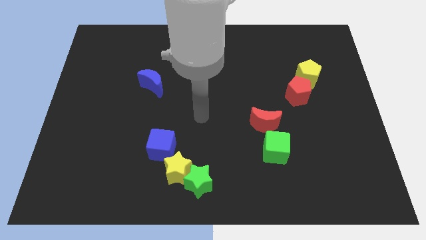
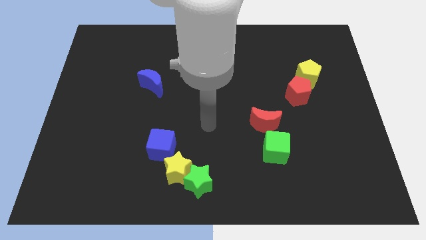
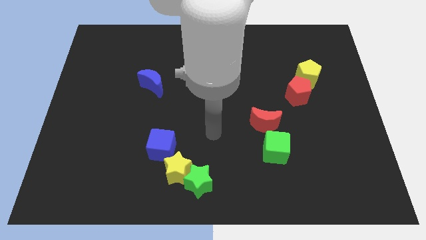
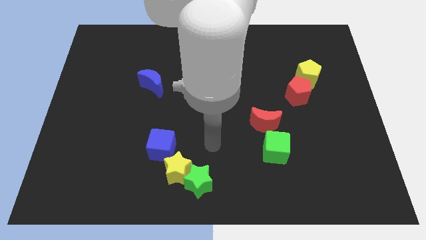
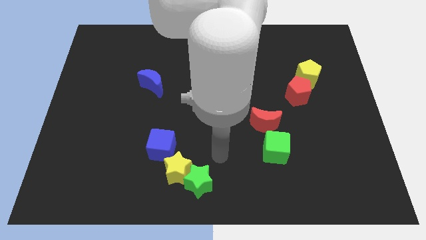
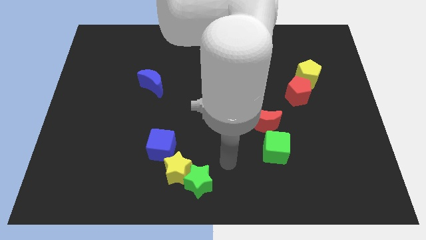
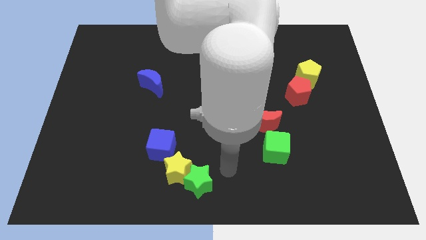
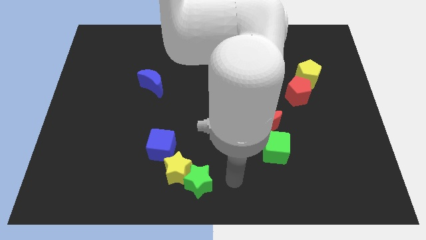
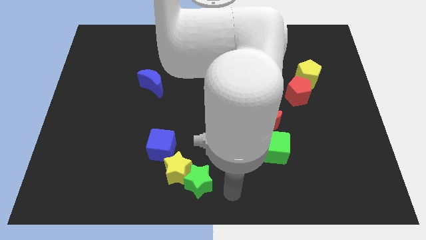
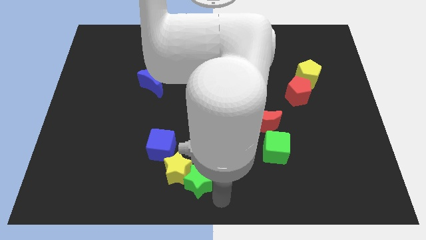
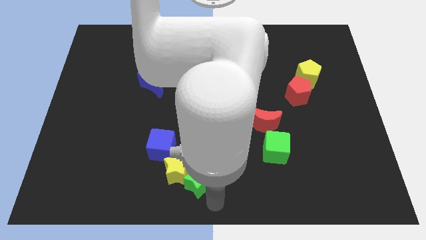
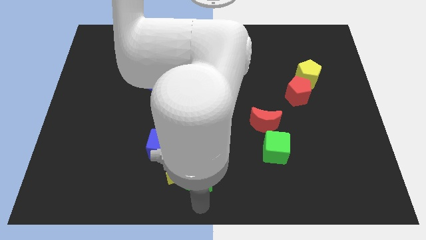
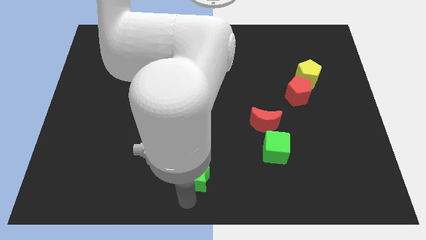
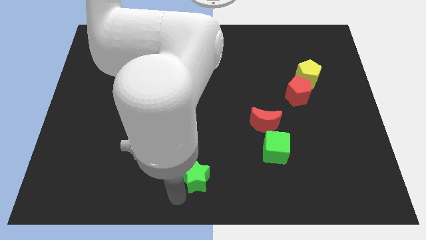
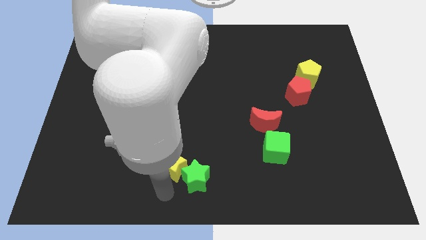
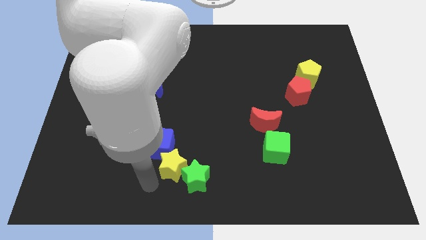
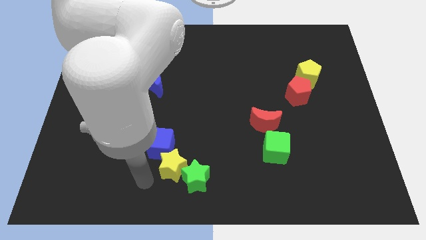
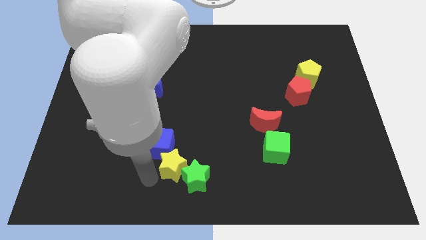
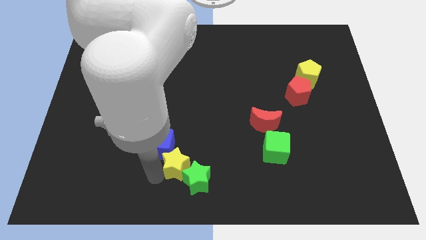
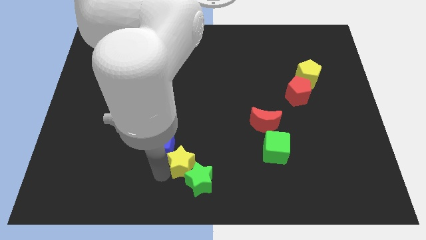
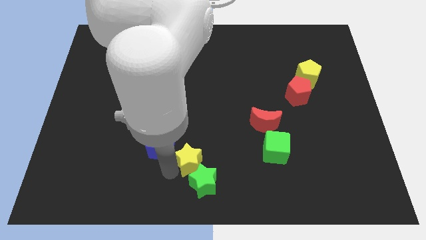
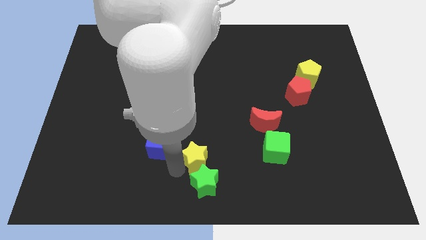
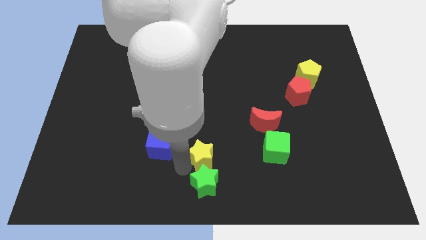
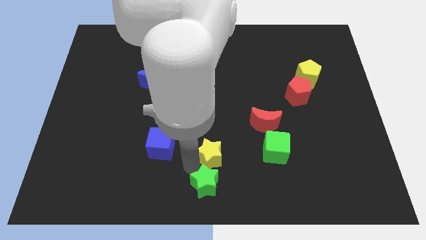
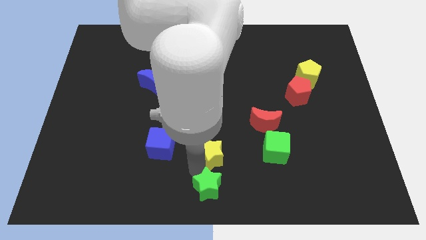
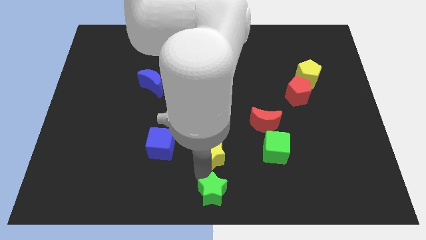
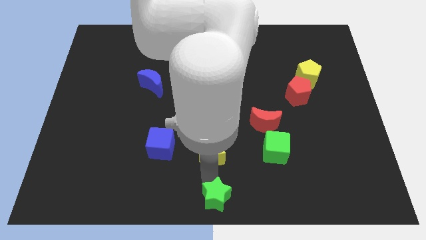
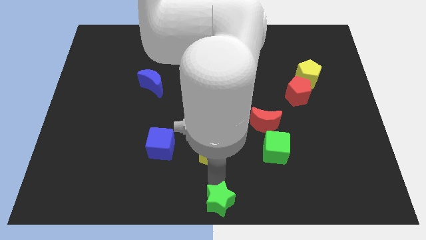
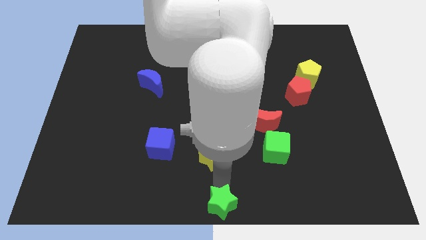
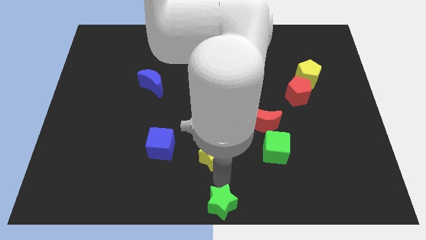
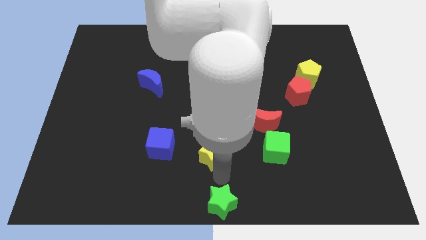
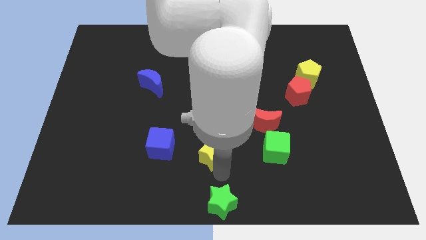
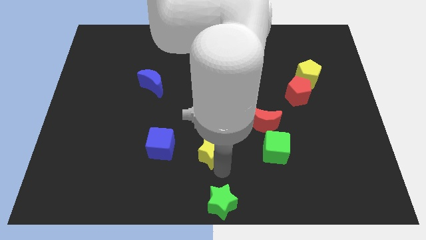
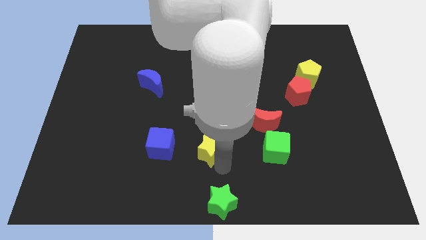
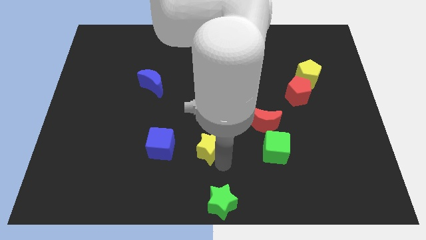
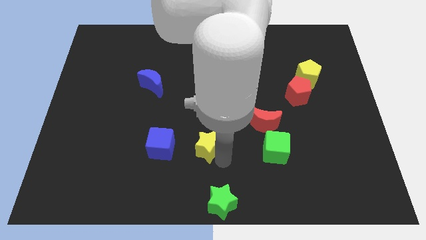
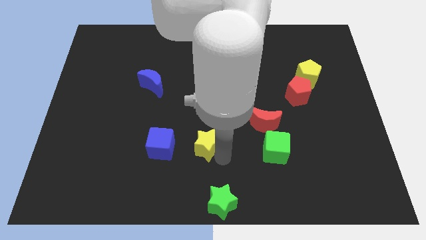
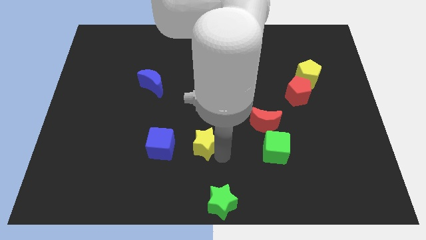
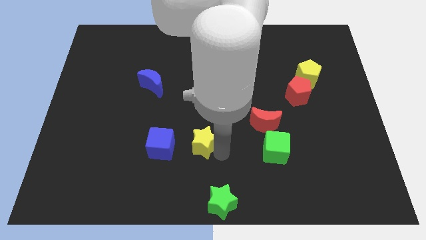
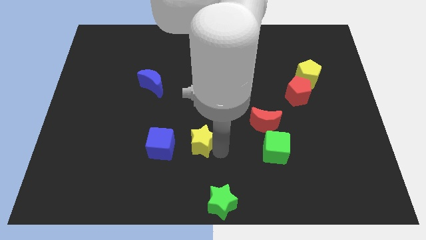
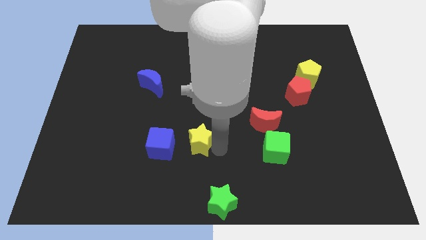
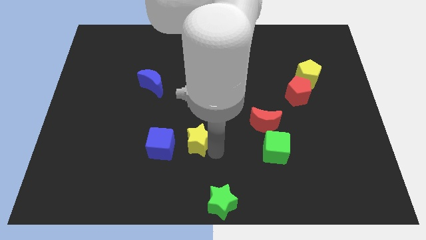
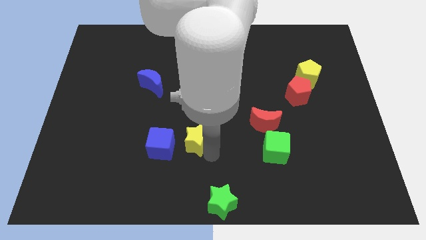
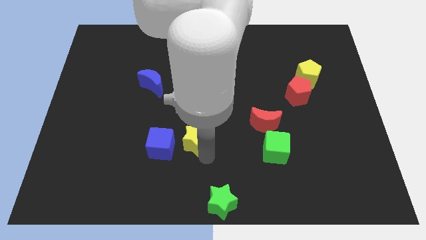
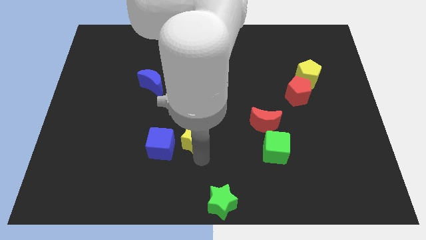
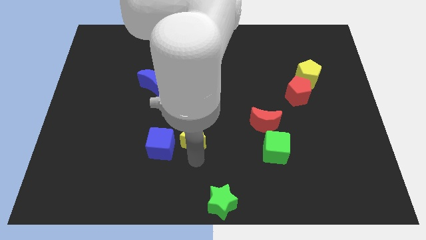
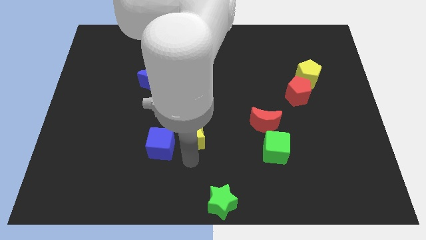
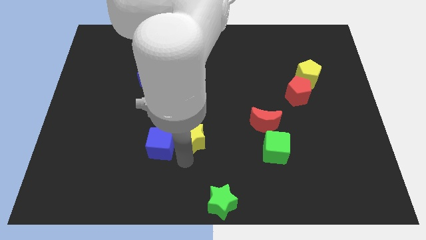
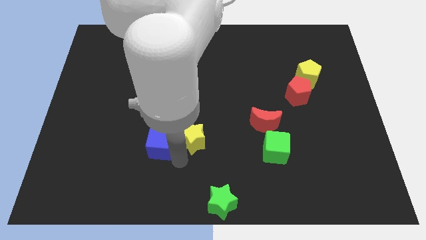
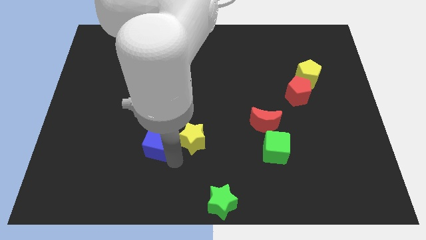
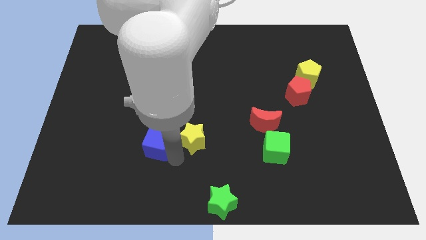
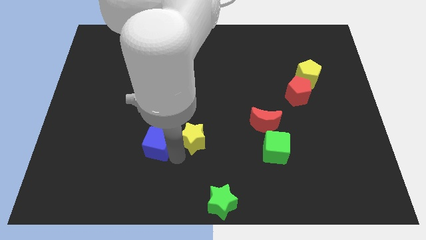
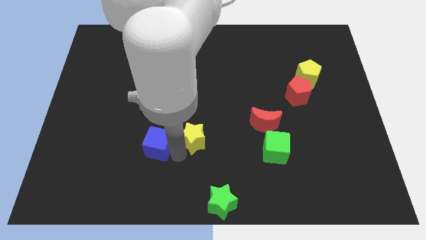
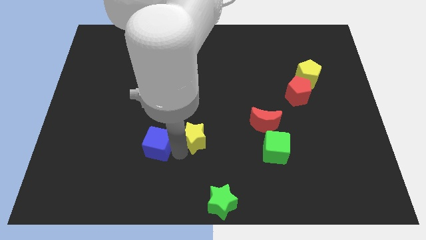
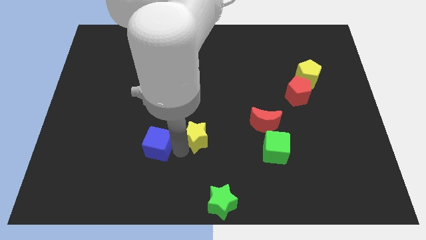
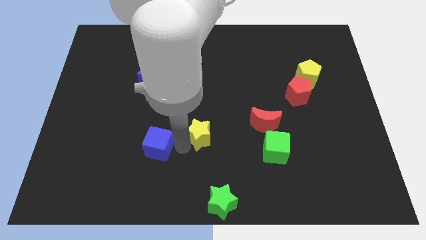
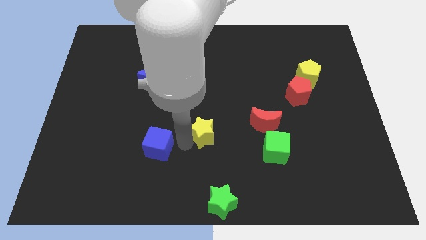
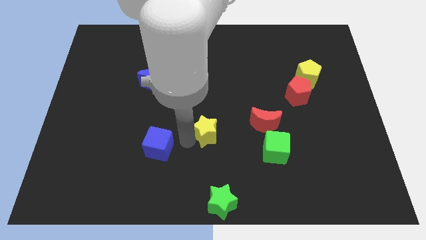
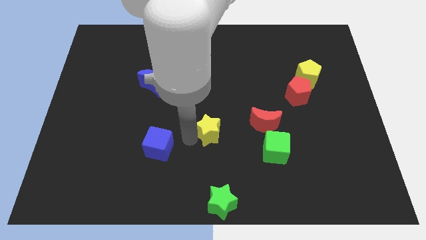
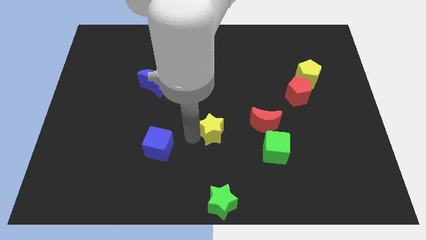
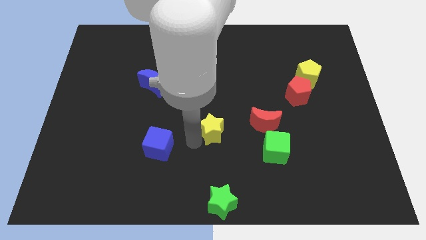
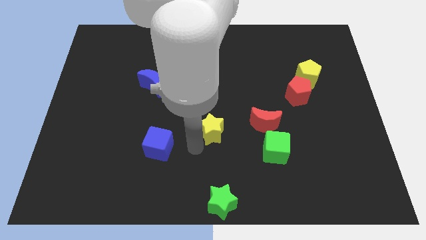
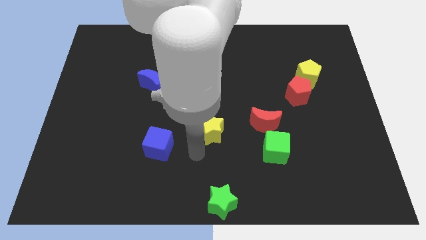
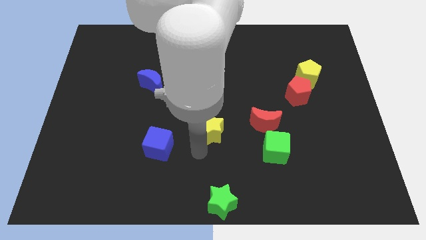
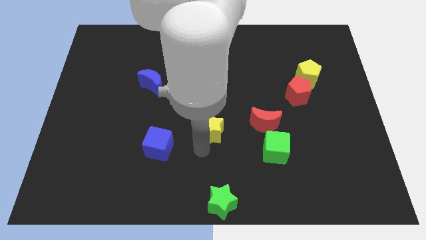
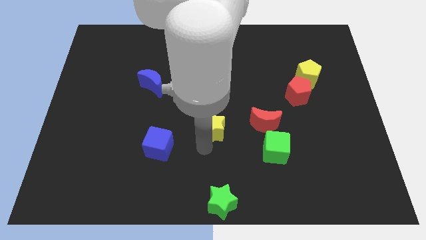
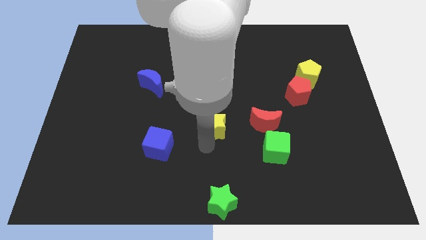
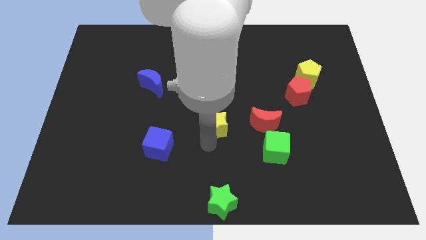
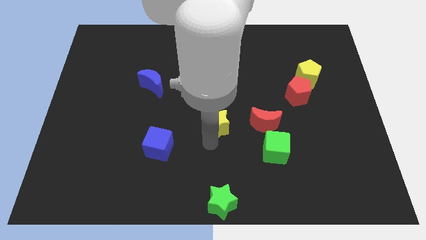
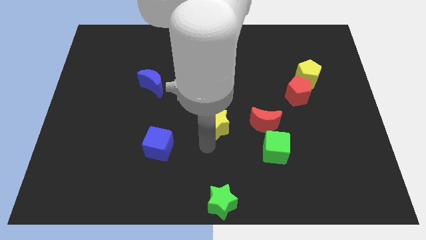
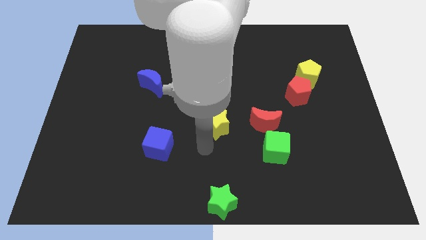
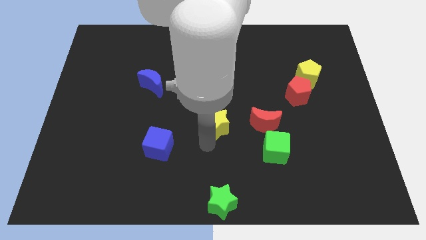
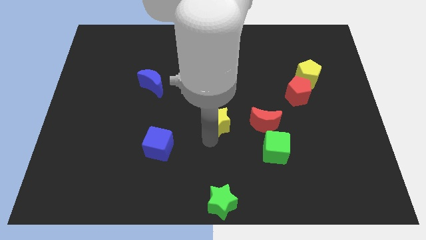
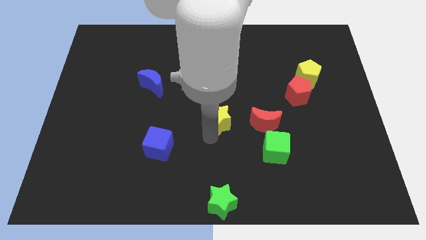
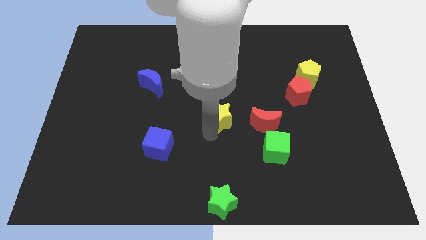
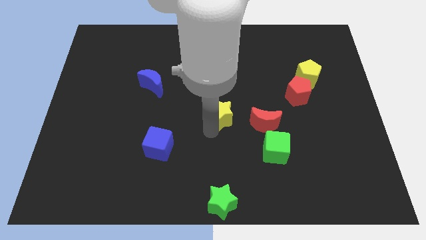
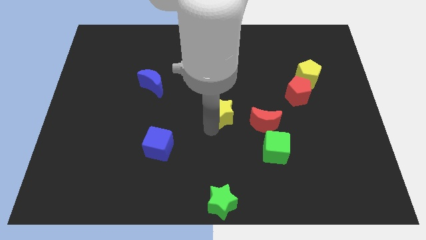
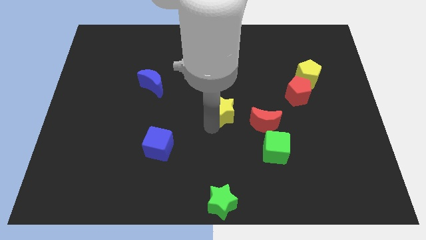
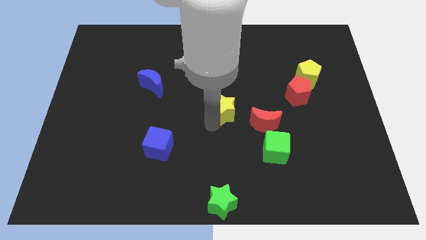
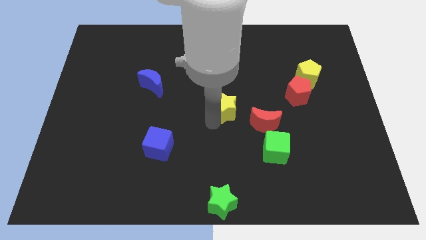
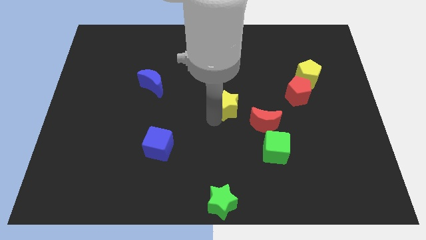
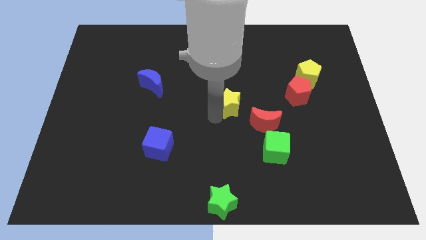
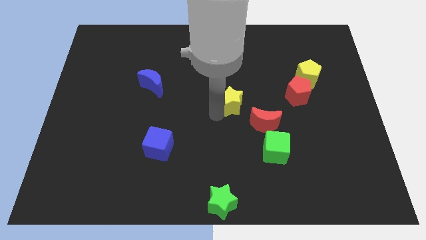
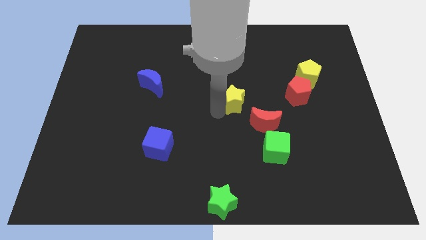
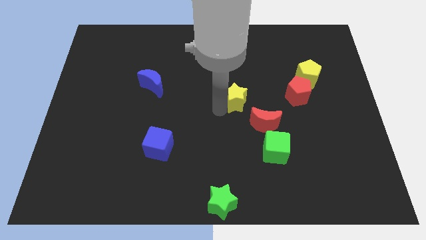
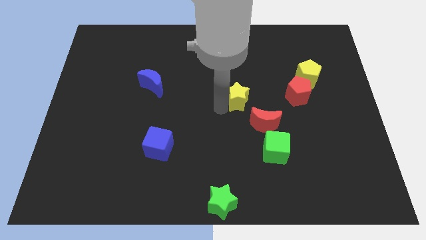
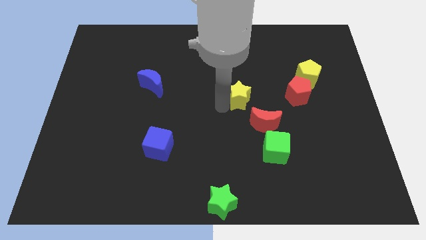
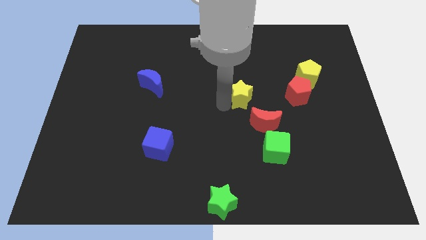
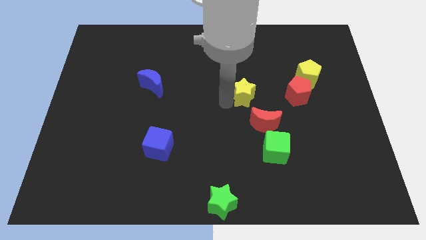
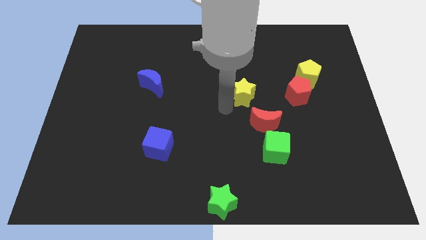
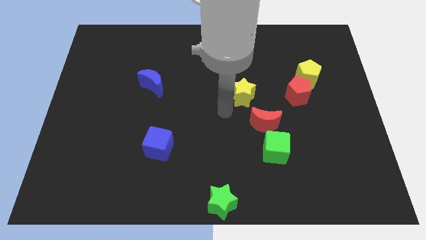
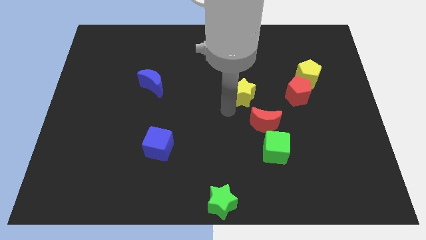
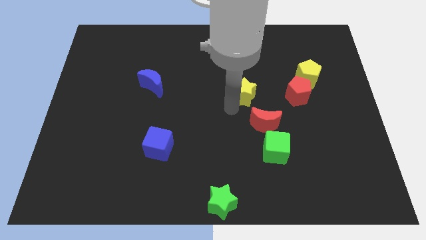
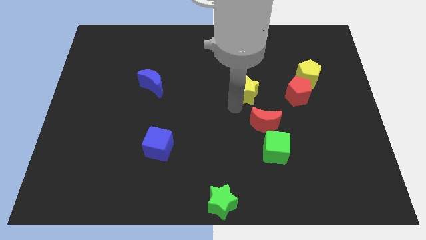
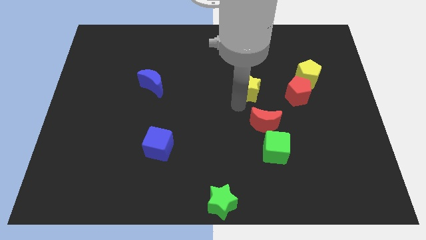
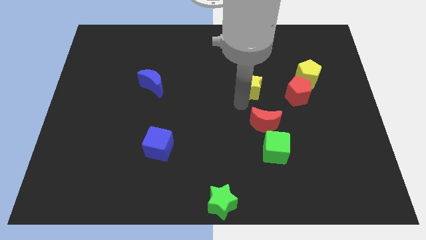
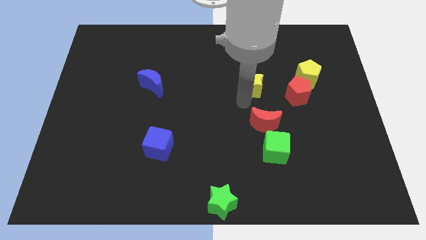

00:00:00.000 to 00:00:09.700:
put the yellow star left of the yellow pentagon
